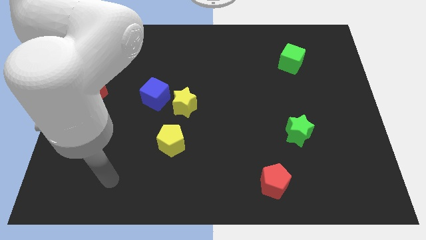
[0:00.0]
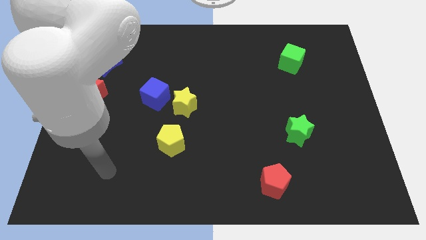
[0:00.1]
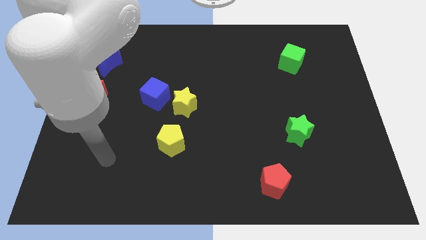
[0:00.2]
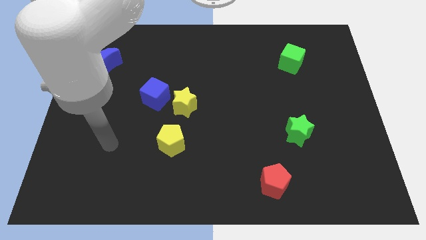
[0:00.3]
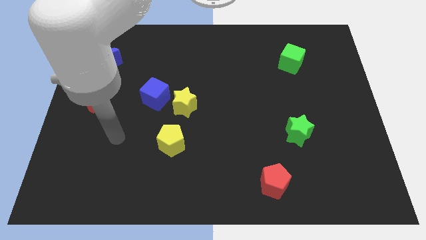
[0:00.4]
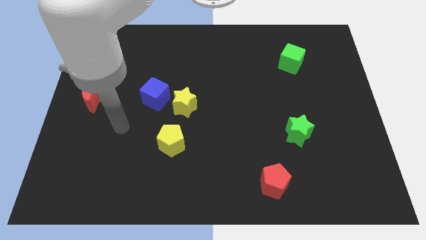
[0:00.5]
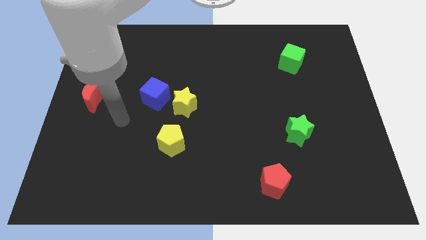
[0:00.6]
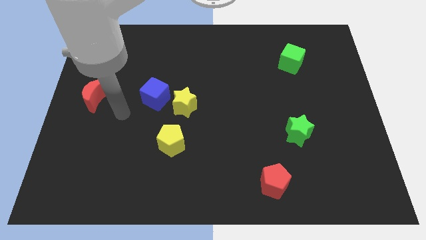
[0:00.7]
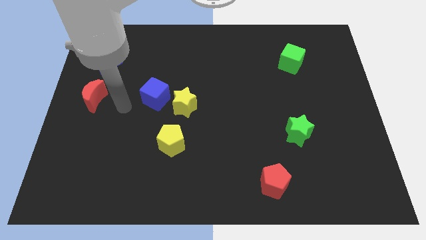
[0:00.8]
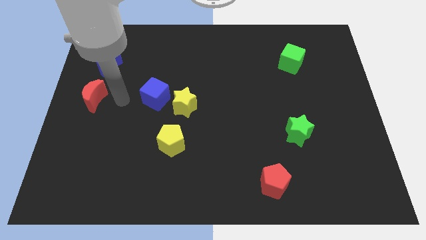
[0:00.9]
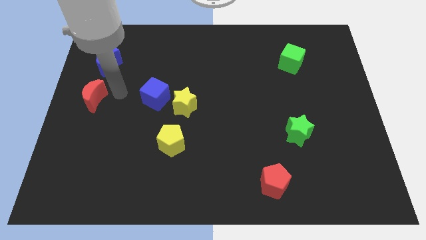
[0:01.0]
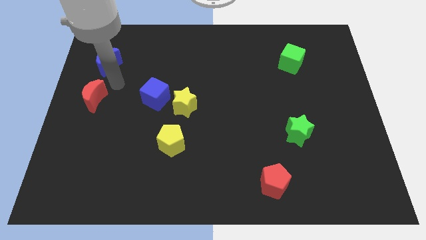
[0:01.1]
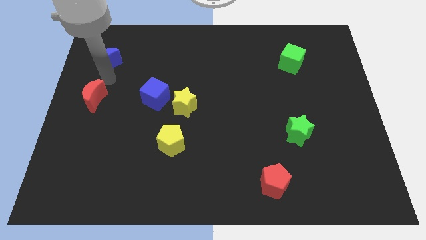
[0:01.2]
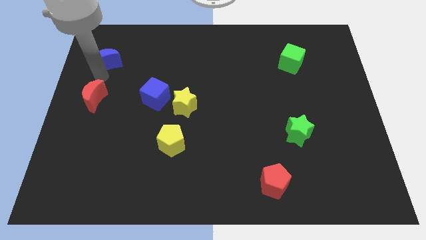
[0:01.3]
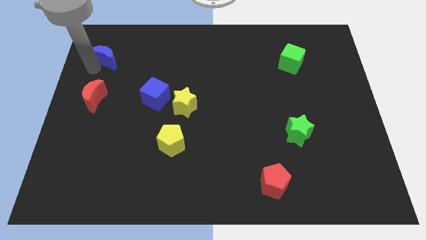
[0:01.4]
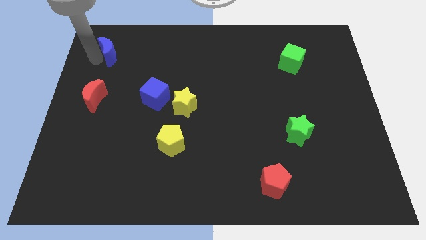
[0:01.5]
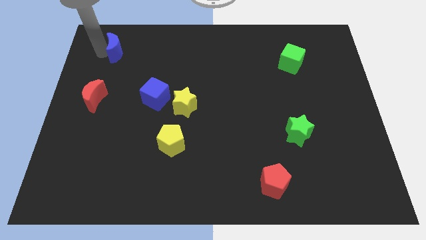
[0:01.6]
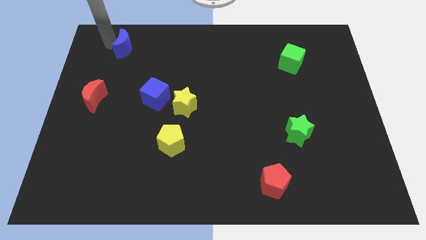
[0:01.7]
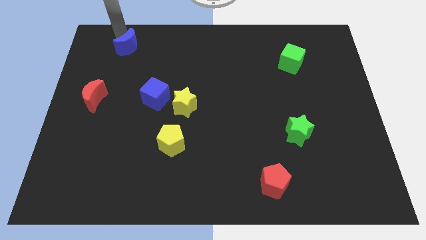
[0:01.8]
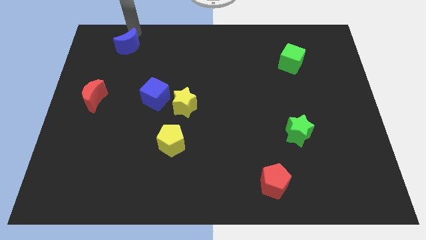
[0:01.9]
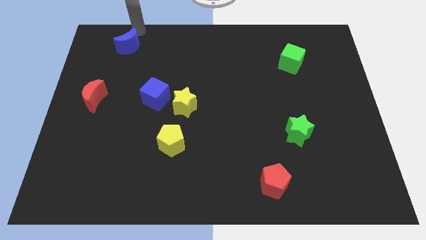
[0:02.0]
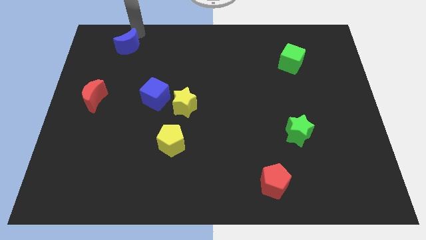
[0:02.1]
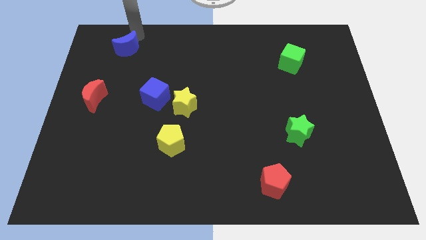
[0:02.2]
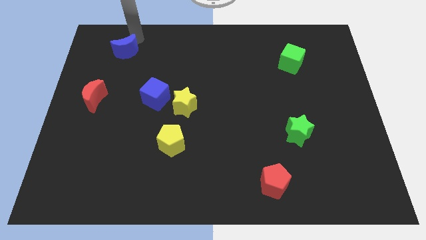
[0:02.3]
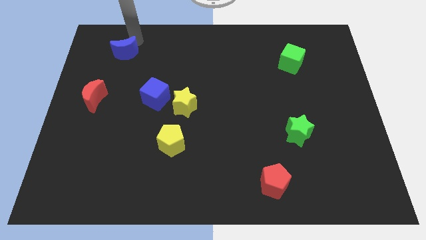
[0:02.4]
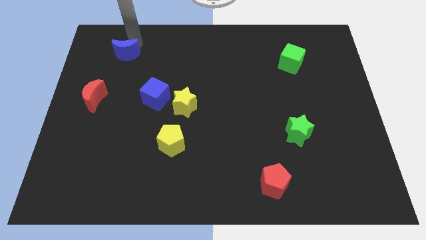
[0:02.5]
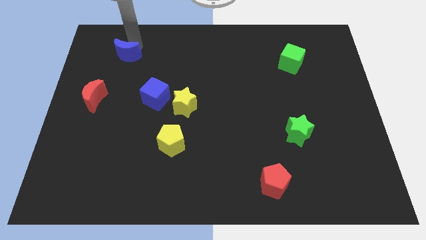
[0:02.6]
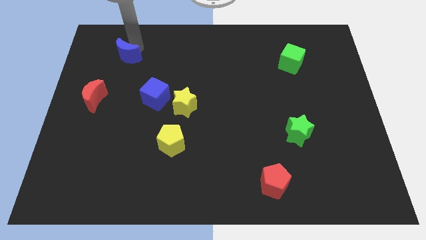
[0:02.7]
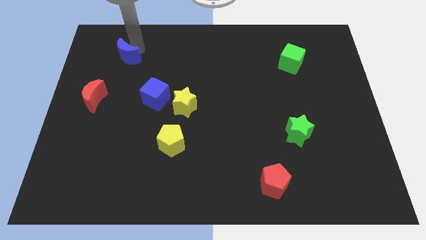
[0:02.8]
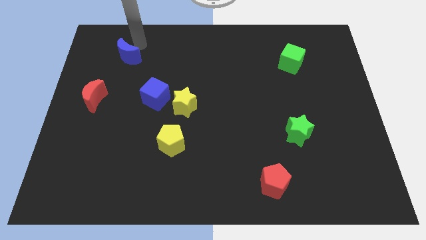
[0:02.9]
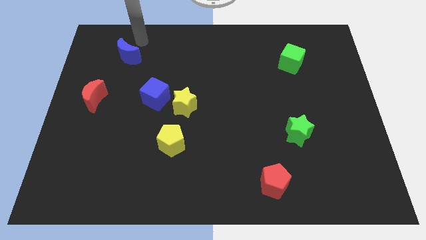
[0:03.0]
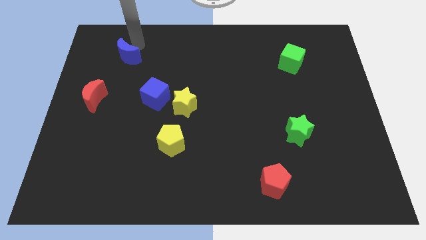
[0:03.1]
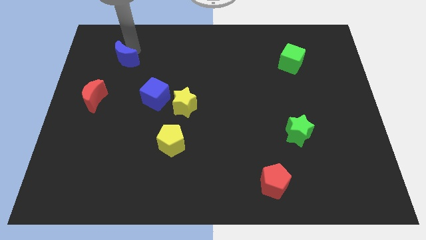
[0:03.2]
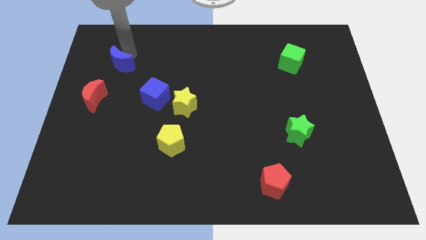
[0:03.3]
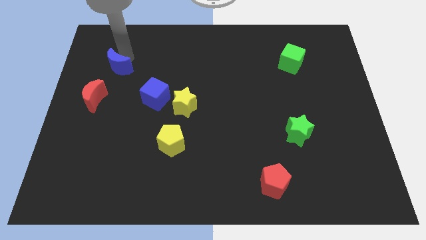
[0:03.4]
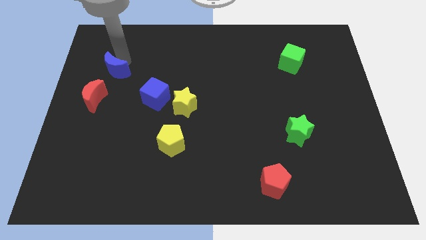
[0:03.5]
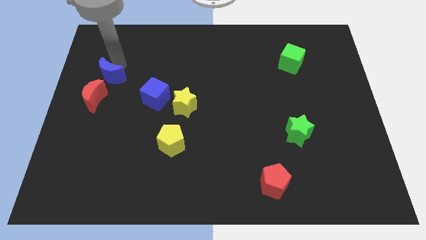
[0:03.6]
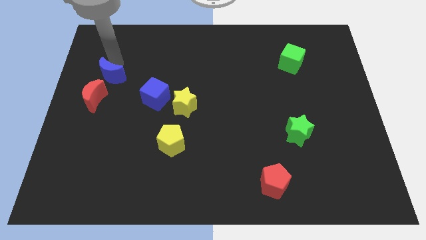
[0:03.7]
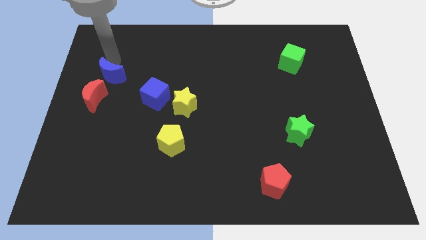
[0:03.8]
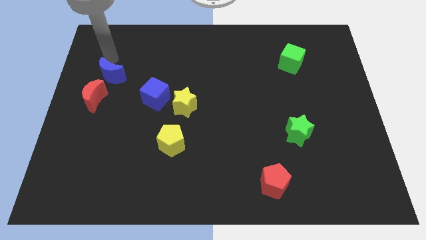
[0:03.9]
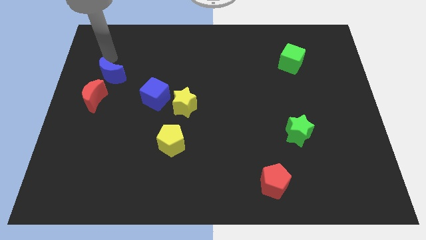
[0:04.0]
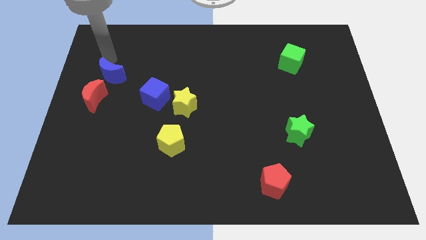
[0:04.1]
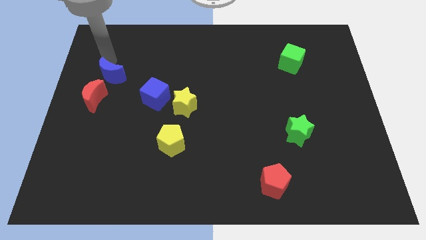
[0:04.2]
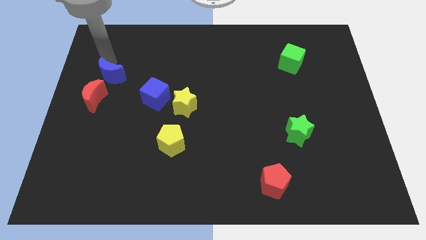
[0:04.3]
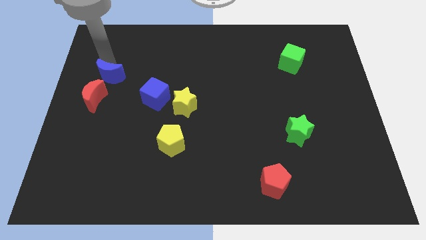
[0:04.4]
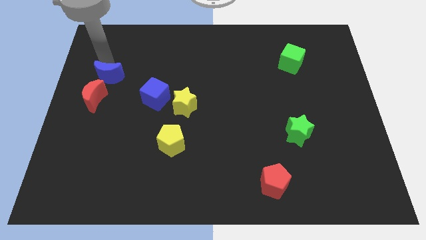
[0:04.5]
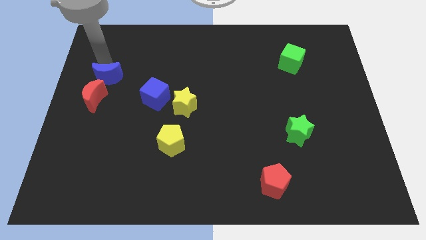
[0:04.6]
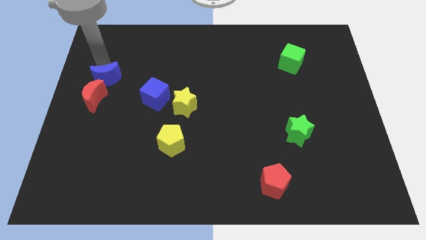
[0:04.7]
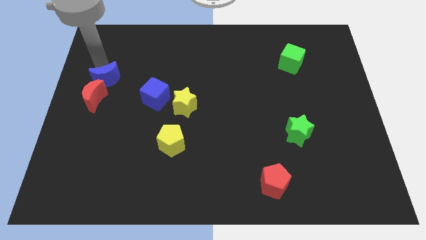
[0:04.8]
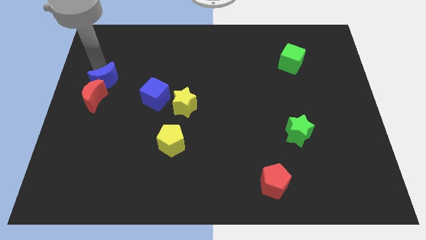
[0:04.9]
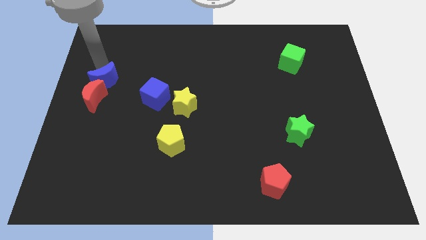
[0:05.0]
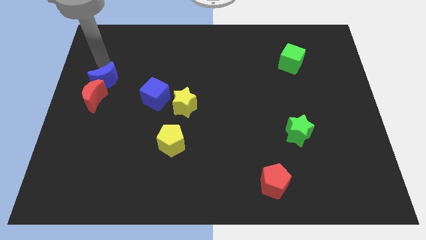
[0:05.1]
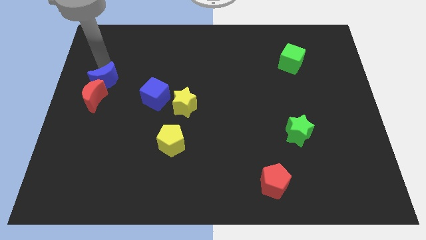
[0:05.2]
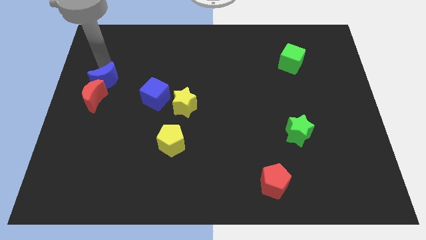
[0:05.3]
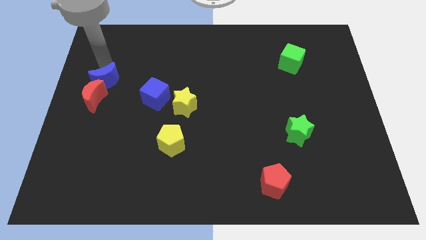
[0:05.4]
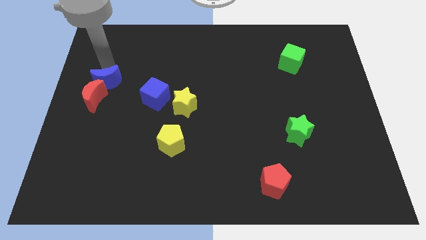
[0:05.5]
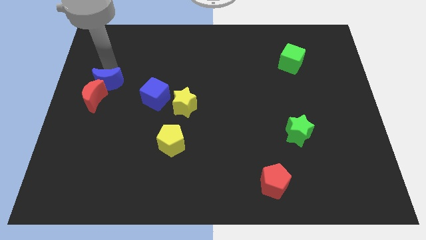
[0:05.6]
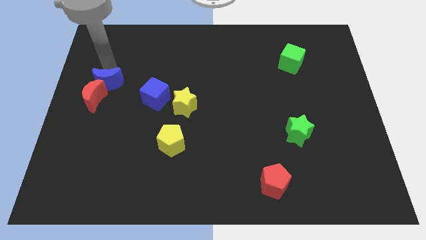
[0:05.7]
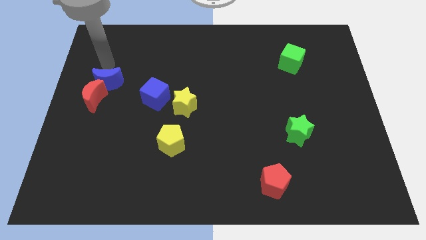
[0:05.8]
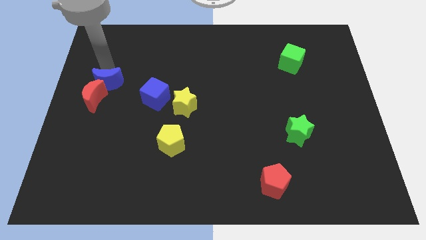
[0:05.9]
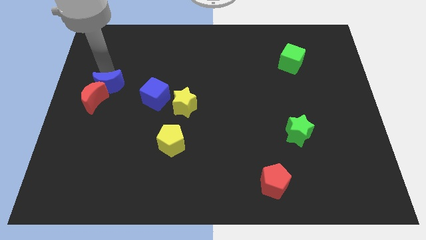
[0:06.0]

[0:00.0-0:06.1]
push the blue moon slightly down

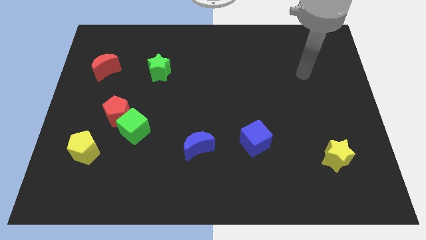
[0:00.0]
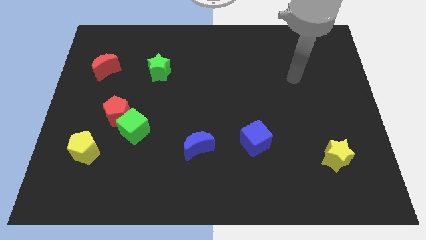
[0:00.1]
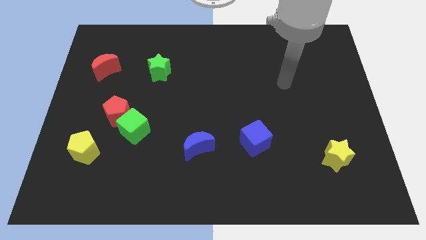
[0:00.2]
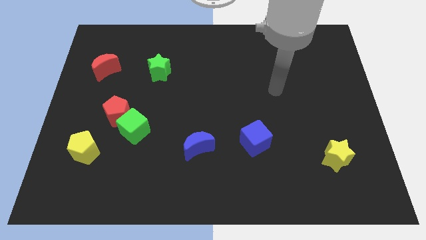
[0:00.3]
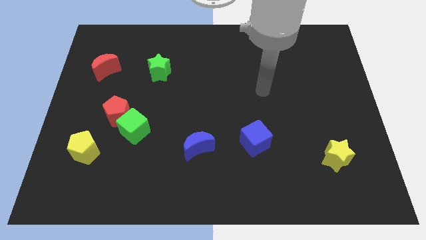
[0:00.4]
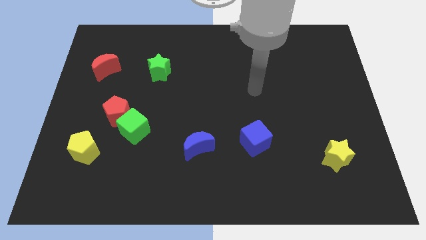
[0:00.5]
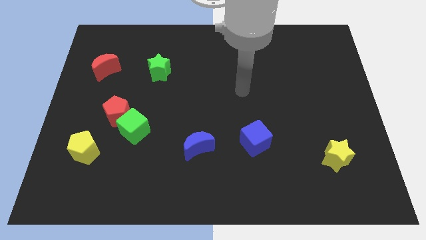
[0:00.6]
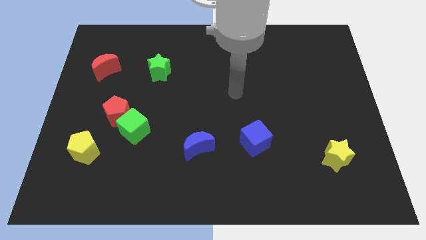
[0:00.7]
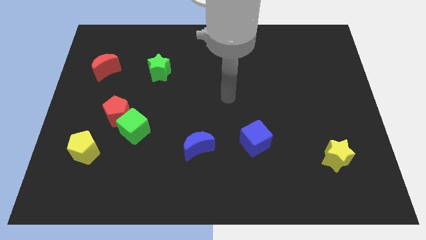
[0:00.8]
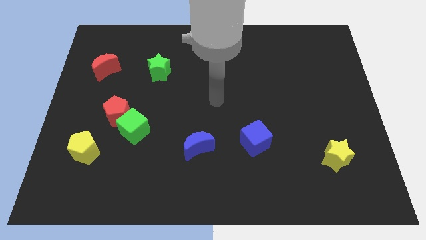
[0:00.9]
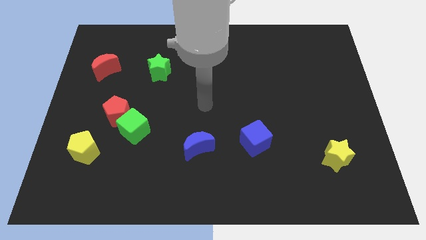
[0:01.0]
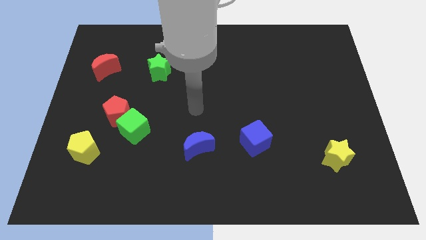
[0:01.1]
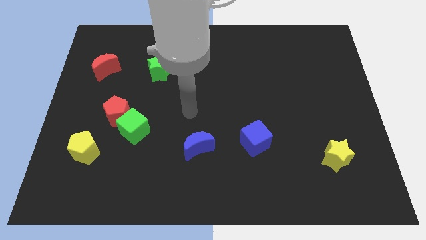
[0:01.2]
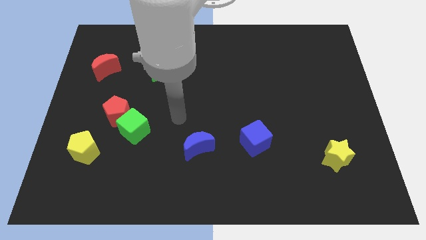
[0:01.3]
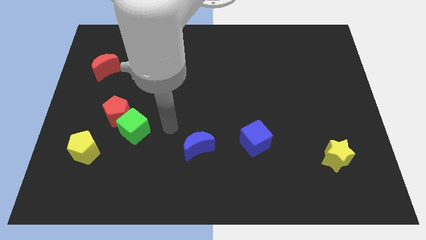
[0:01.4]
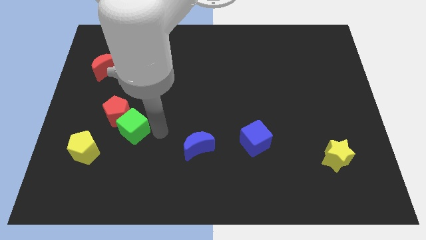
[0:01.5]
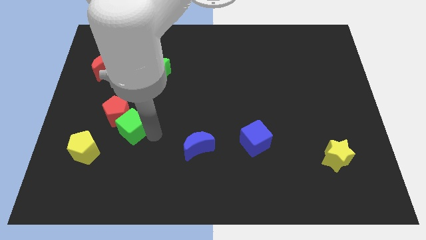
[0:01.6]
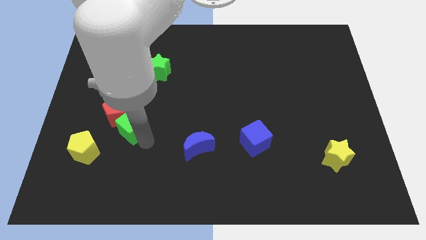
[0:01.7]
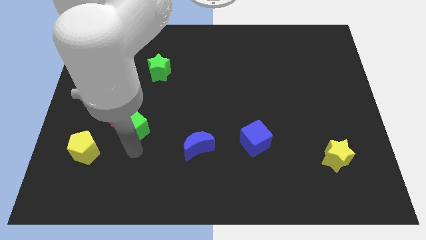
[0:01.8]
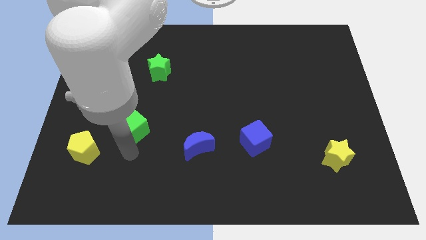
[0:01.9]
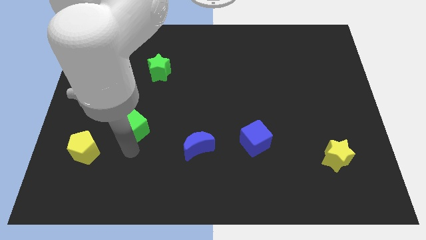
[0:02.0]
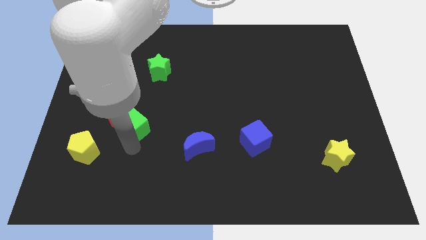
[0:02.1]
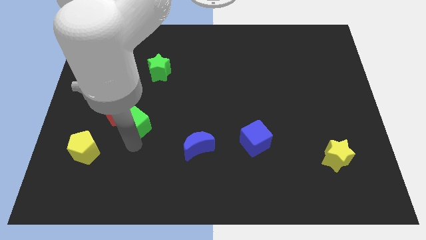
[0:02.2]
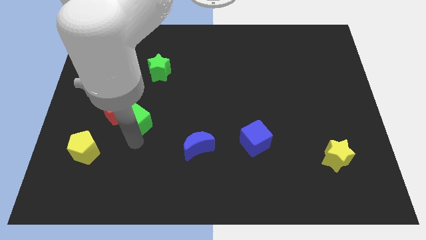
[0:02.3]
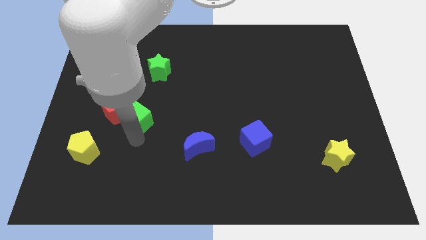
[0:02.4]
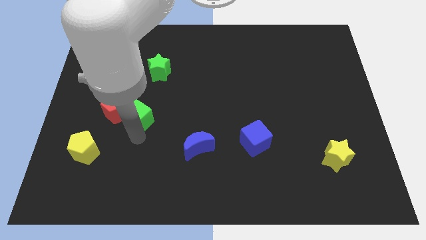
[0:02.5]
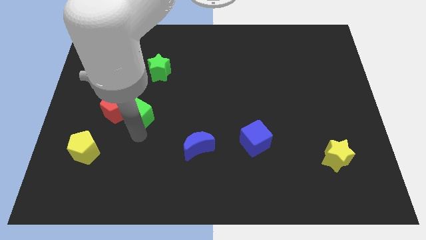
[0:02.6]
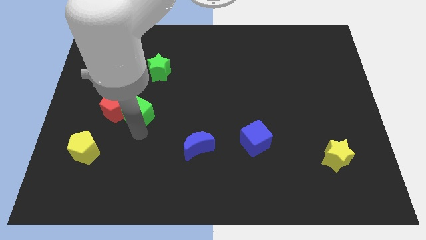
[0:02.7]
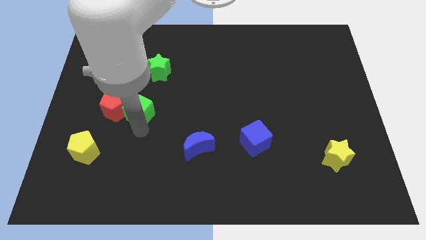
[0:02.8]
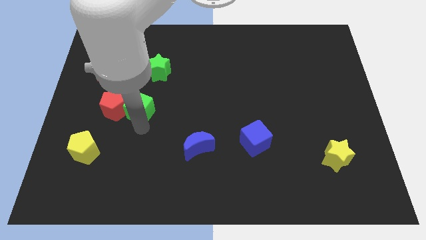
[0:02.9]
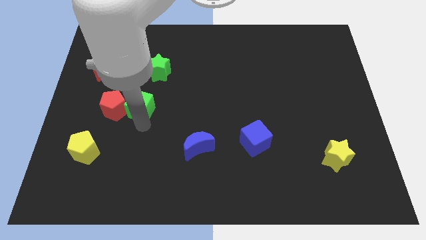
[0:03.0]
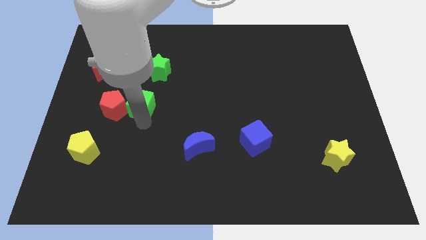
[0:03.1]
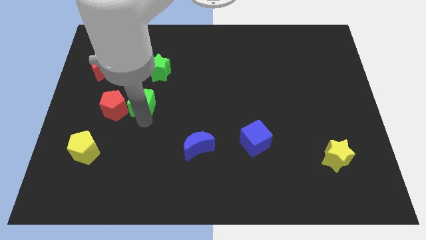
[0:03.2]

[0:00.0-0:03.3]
move the green cube a bit upwards
